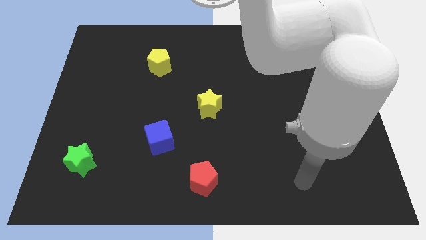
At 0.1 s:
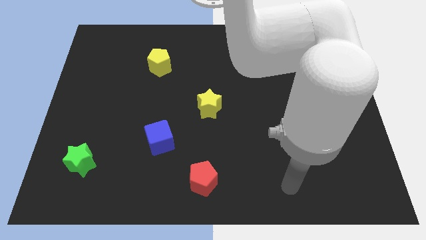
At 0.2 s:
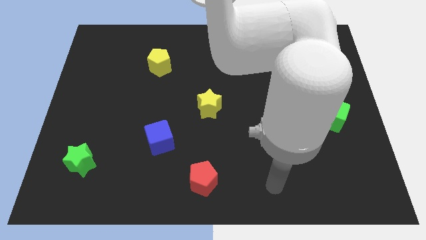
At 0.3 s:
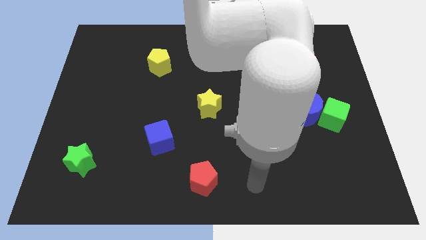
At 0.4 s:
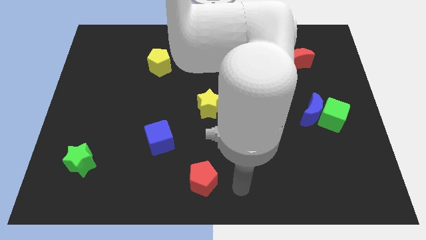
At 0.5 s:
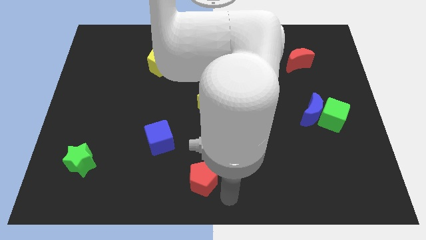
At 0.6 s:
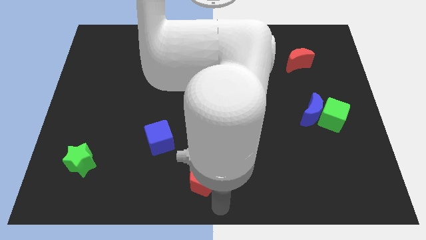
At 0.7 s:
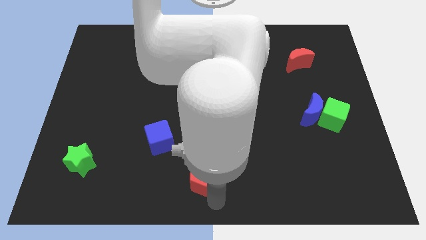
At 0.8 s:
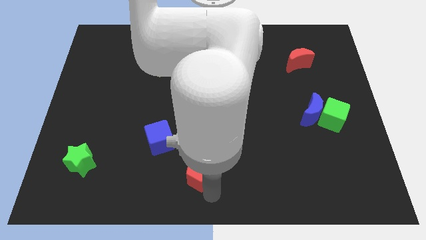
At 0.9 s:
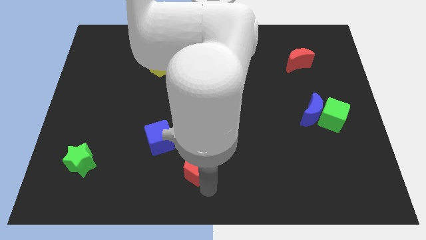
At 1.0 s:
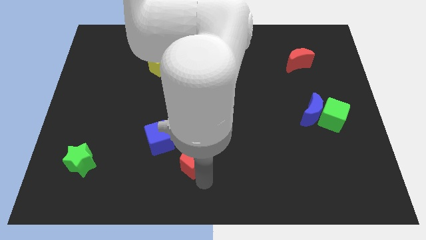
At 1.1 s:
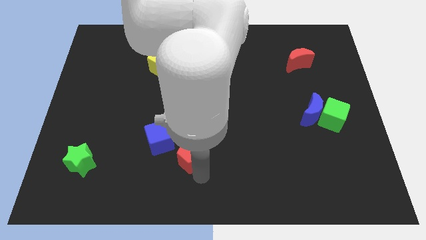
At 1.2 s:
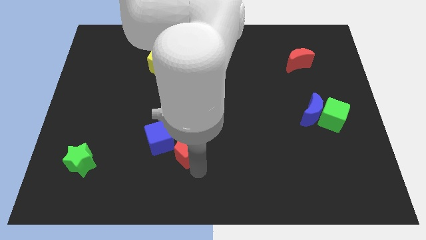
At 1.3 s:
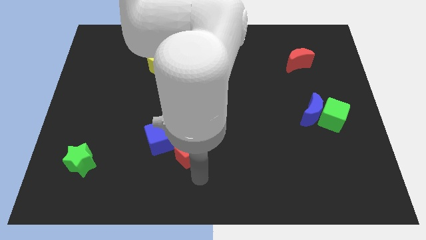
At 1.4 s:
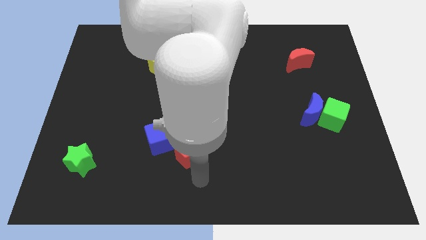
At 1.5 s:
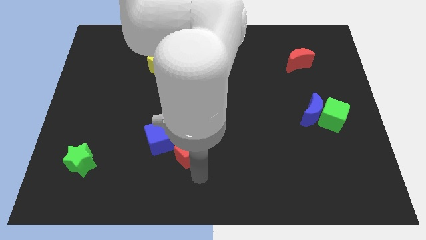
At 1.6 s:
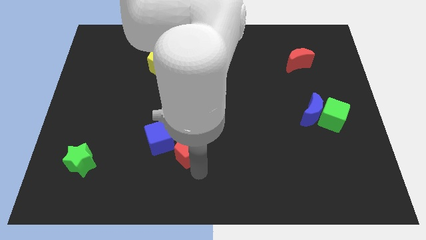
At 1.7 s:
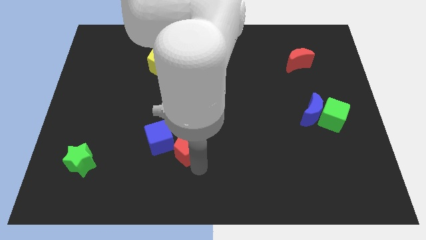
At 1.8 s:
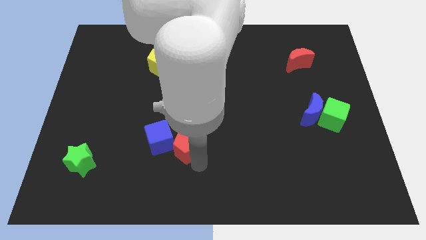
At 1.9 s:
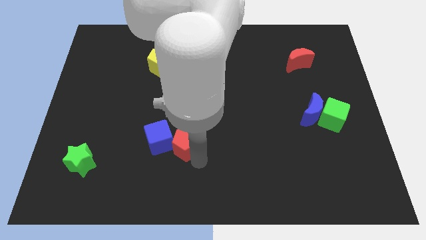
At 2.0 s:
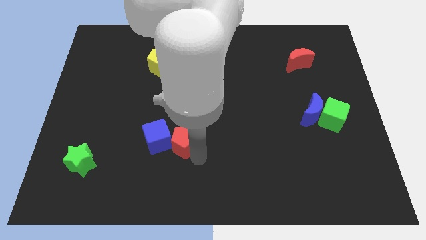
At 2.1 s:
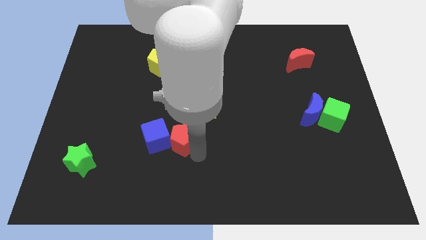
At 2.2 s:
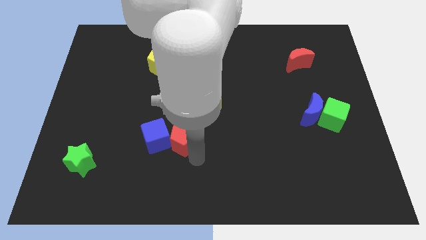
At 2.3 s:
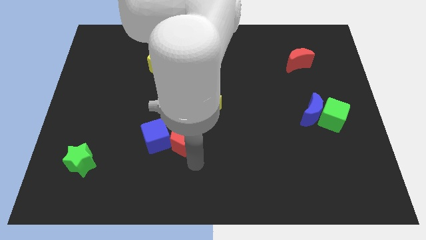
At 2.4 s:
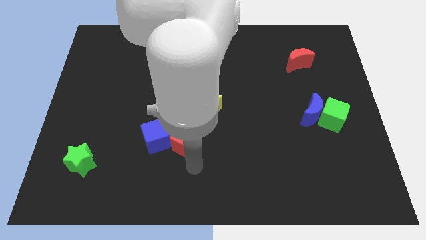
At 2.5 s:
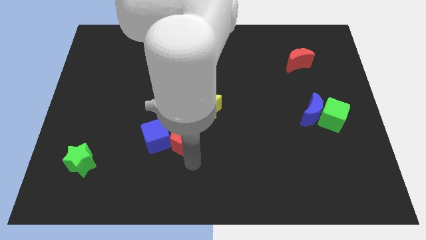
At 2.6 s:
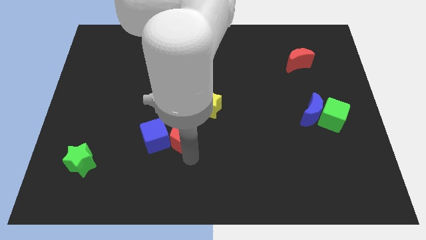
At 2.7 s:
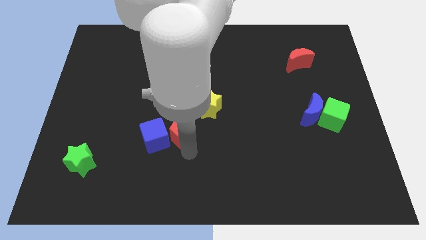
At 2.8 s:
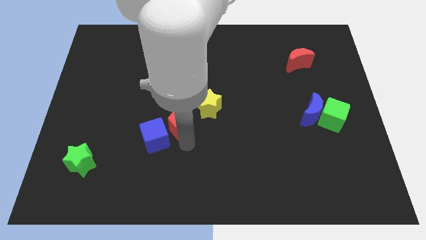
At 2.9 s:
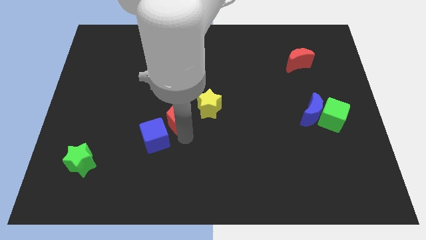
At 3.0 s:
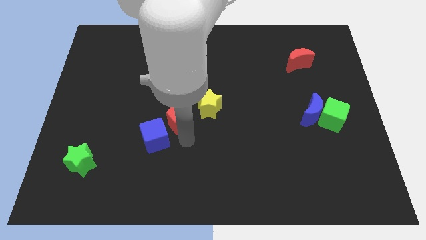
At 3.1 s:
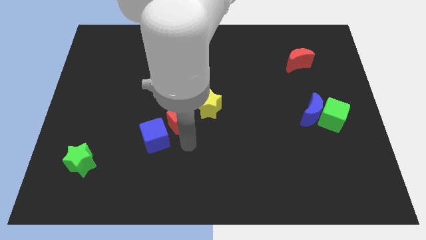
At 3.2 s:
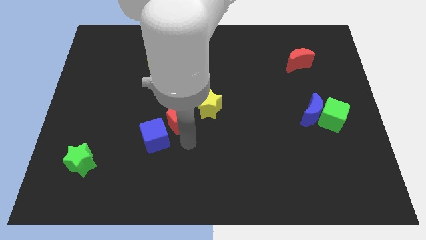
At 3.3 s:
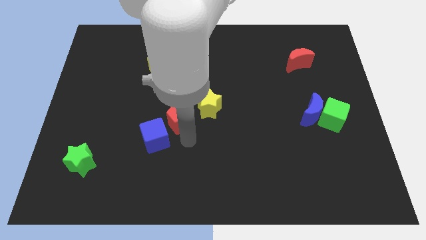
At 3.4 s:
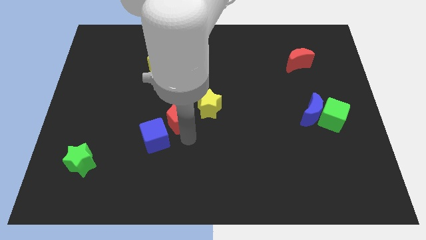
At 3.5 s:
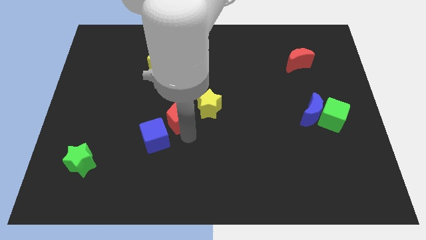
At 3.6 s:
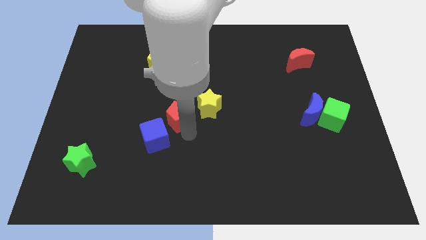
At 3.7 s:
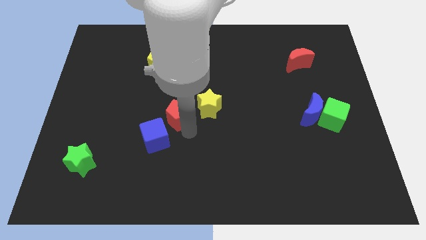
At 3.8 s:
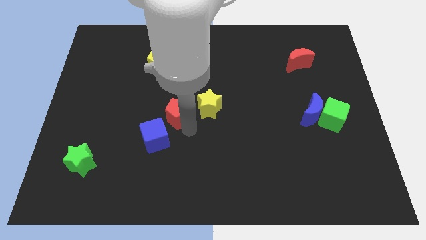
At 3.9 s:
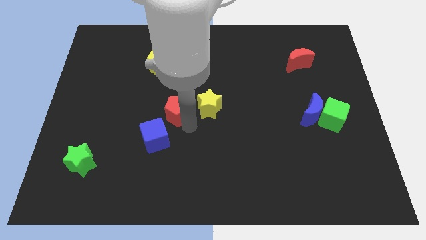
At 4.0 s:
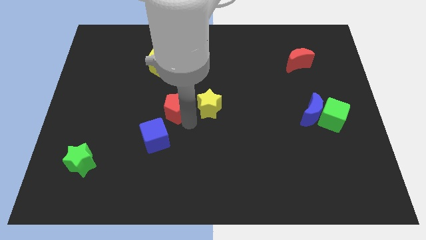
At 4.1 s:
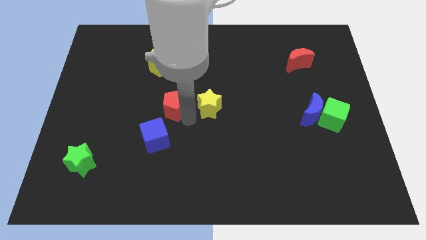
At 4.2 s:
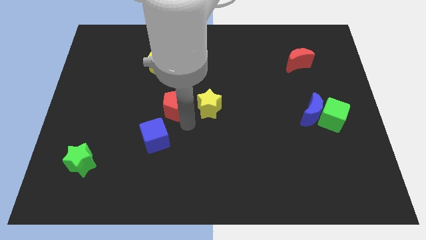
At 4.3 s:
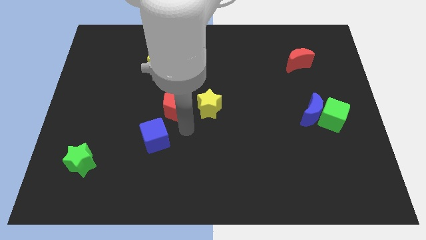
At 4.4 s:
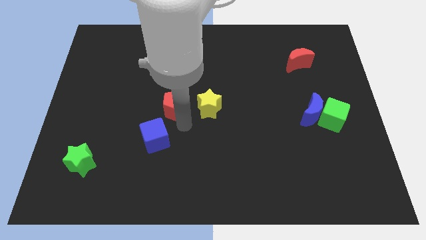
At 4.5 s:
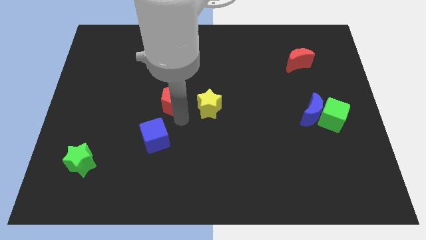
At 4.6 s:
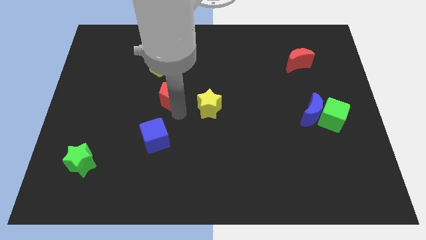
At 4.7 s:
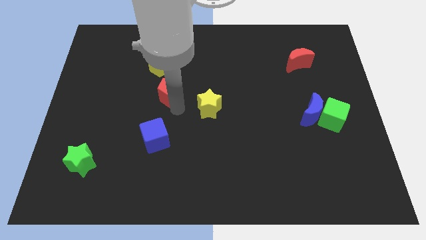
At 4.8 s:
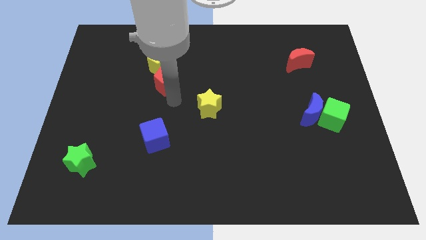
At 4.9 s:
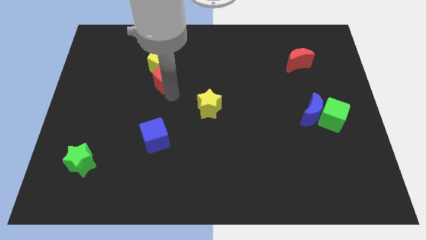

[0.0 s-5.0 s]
put the red pentagon towards the yellow pentagon

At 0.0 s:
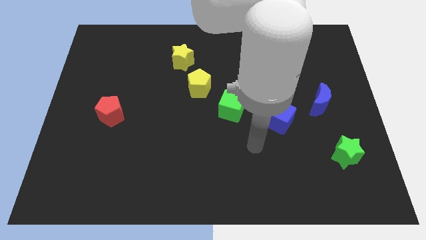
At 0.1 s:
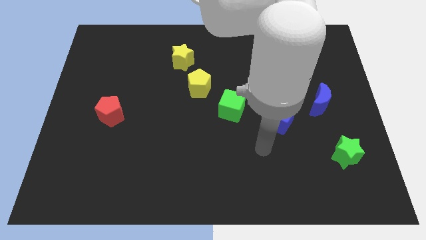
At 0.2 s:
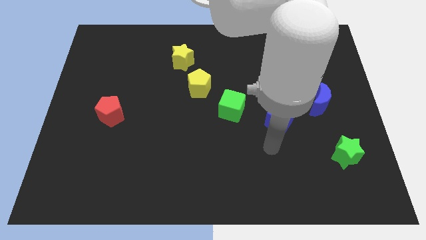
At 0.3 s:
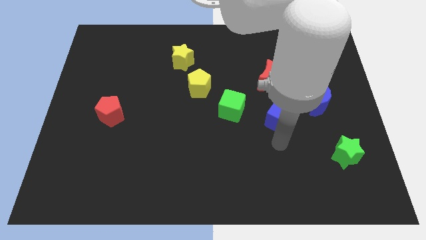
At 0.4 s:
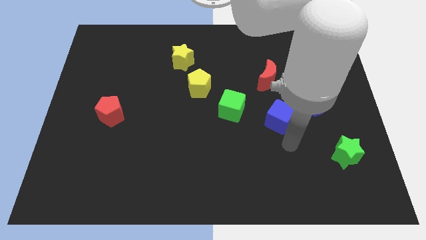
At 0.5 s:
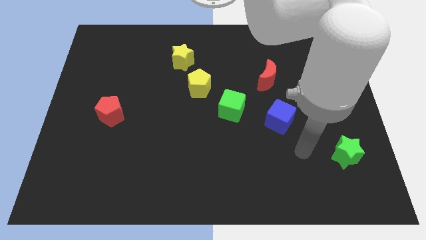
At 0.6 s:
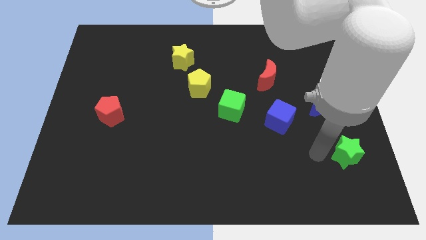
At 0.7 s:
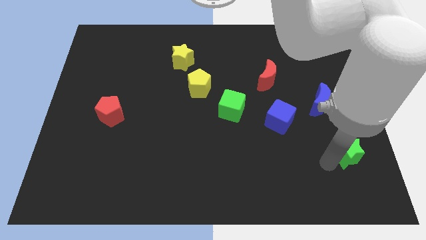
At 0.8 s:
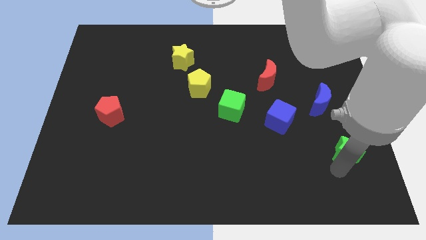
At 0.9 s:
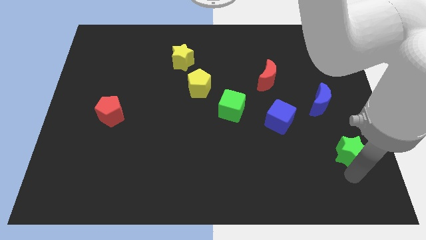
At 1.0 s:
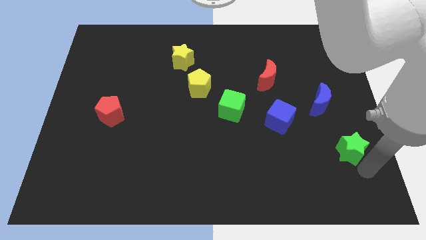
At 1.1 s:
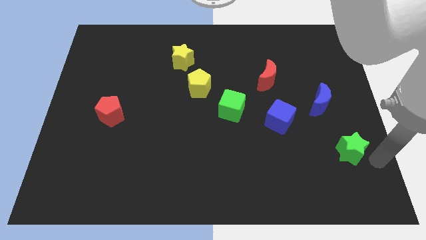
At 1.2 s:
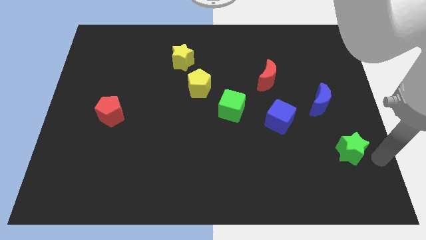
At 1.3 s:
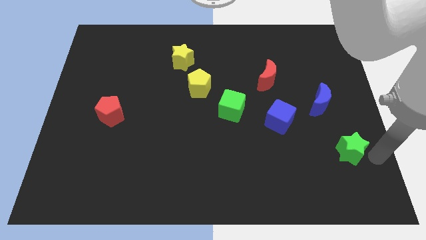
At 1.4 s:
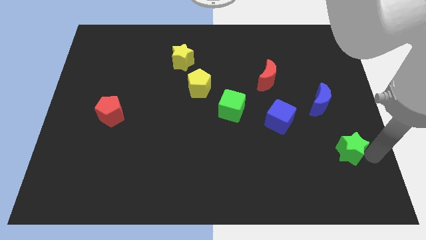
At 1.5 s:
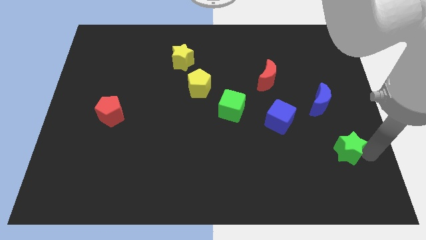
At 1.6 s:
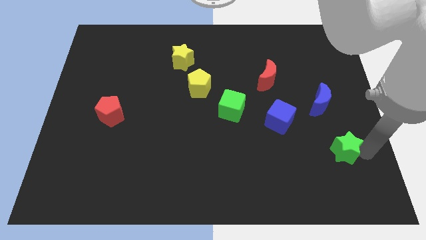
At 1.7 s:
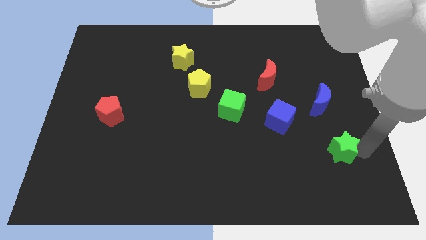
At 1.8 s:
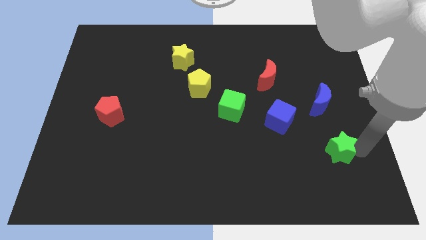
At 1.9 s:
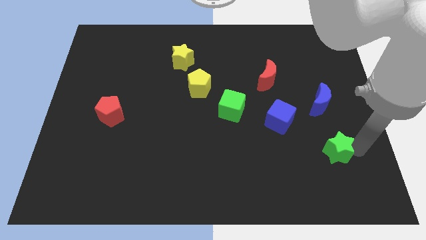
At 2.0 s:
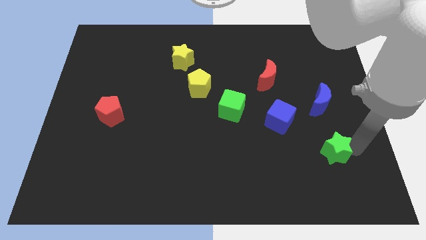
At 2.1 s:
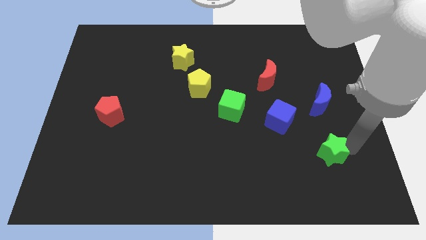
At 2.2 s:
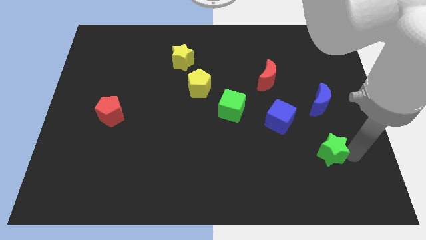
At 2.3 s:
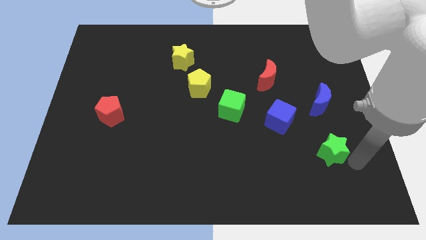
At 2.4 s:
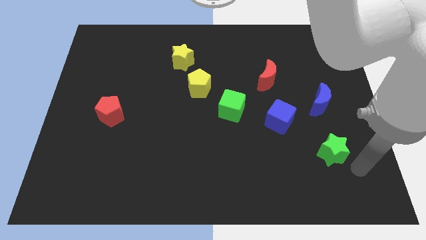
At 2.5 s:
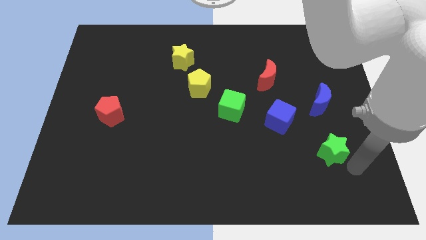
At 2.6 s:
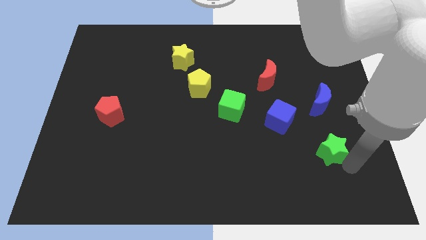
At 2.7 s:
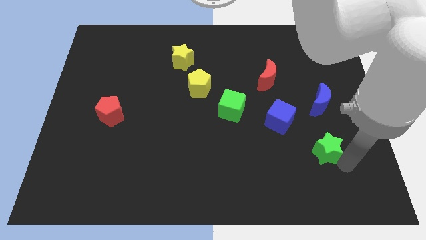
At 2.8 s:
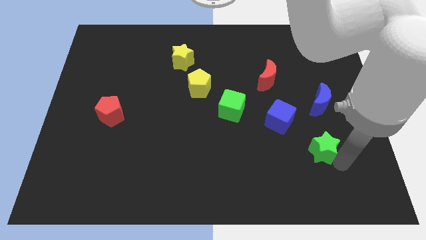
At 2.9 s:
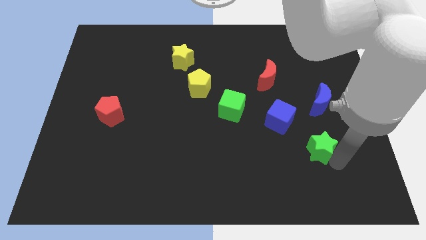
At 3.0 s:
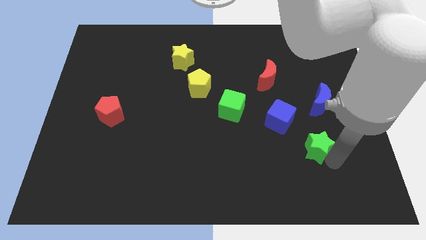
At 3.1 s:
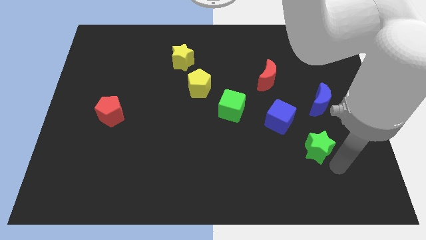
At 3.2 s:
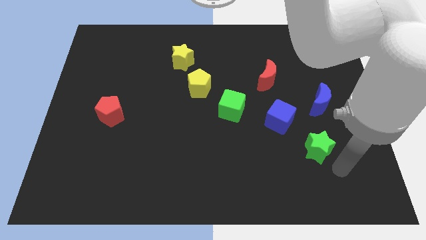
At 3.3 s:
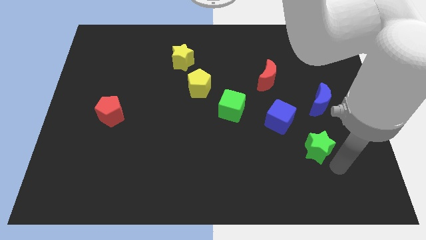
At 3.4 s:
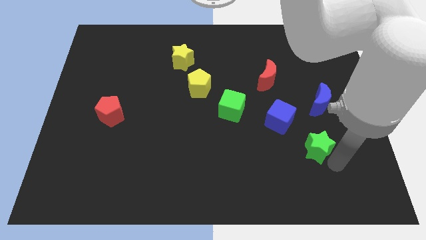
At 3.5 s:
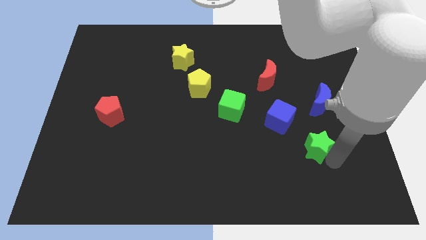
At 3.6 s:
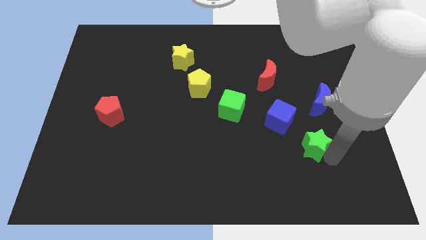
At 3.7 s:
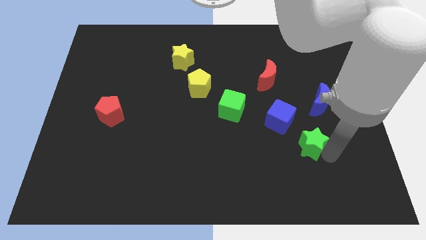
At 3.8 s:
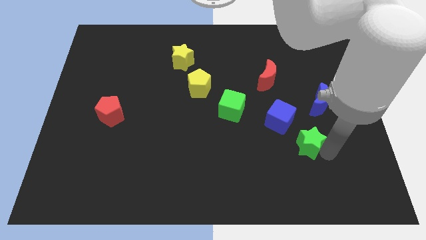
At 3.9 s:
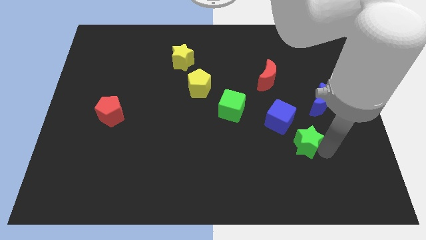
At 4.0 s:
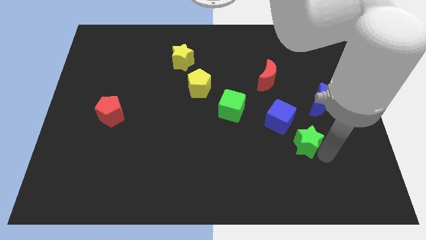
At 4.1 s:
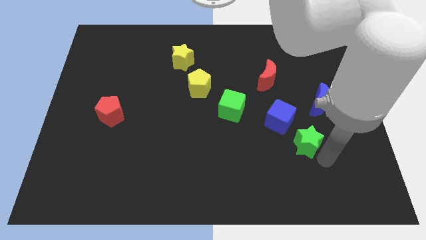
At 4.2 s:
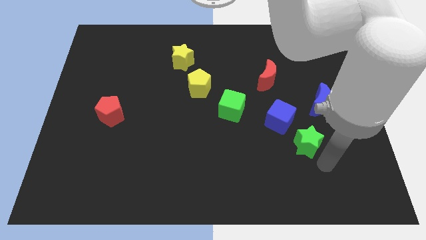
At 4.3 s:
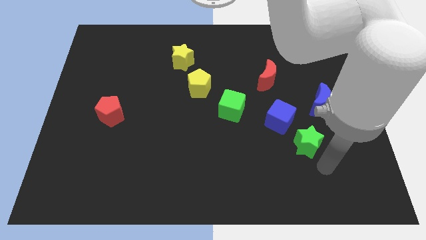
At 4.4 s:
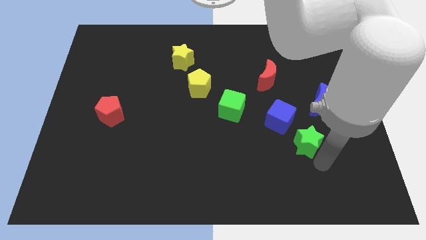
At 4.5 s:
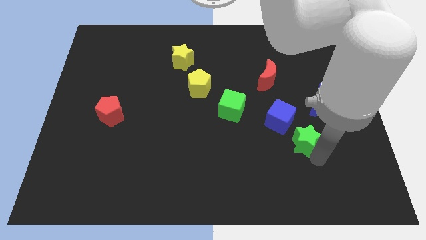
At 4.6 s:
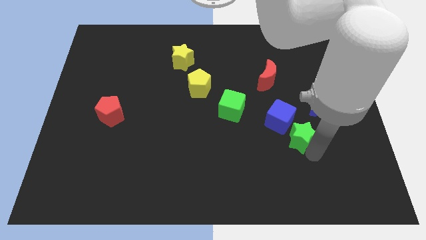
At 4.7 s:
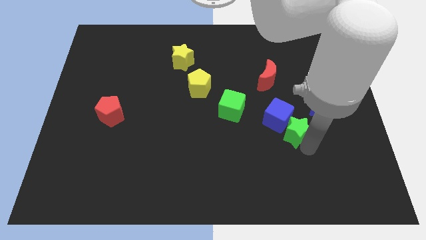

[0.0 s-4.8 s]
put the green star to the blue cube
